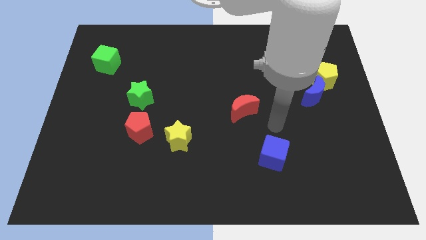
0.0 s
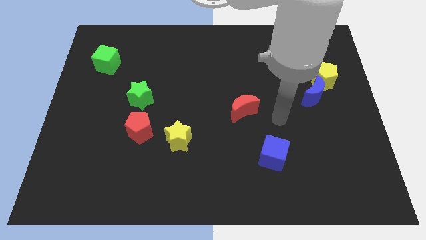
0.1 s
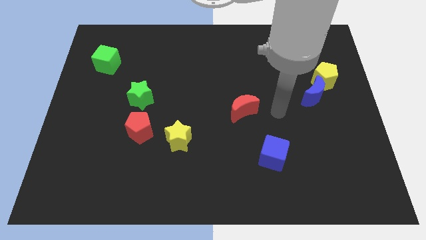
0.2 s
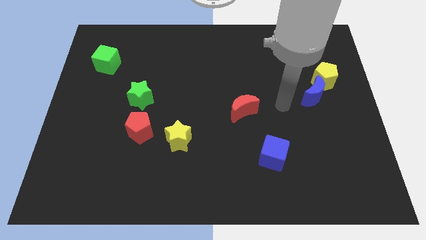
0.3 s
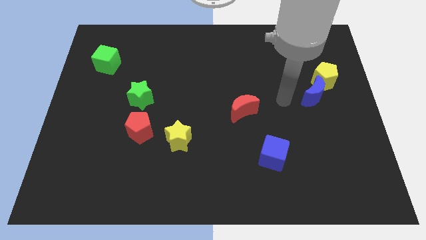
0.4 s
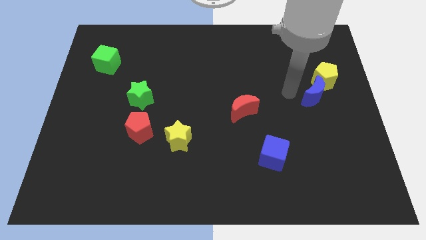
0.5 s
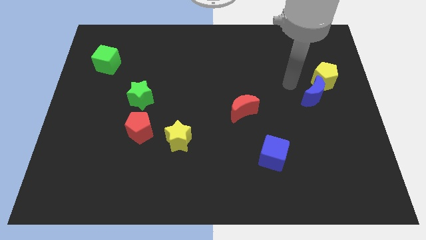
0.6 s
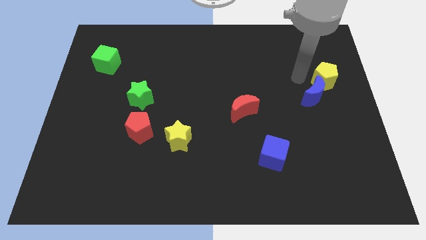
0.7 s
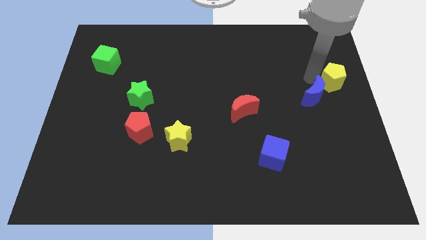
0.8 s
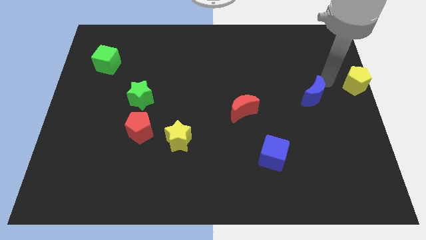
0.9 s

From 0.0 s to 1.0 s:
pull the blue moon apart from the yellow pentagon

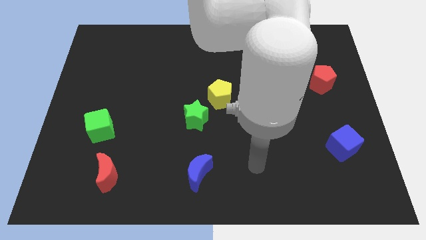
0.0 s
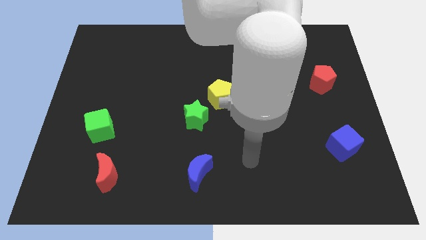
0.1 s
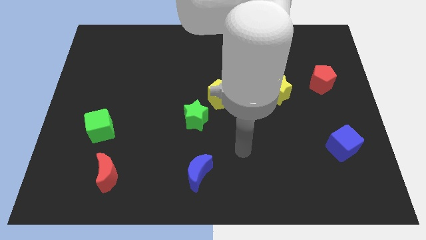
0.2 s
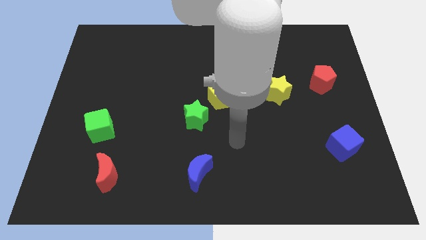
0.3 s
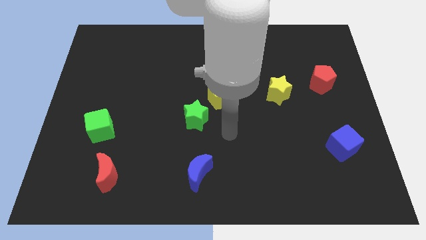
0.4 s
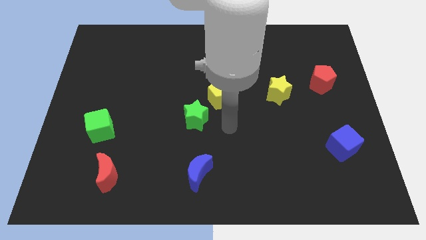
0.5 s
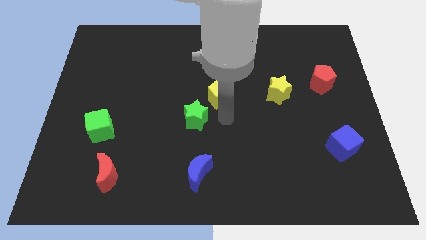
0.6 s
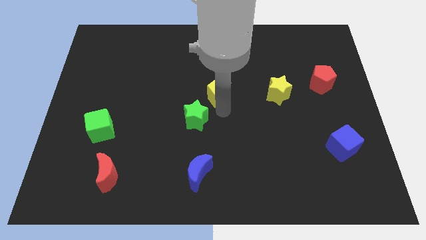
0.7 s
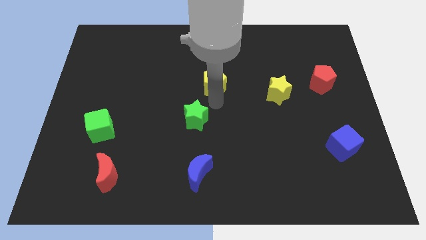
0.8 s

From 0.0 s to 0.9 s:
move the green star away from the yellow pentagon

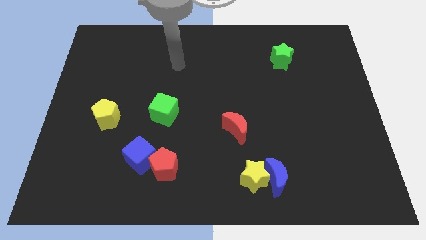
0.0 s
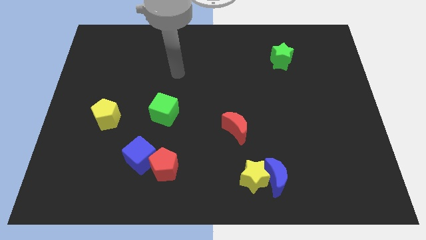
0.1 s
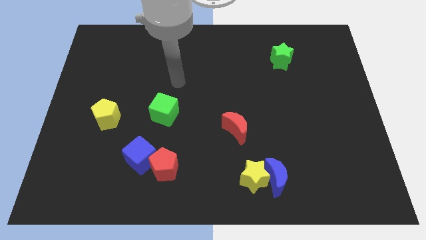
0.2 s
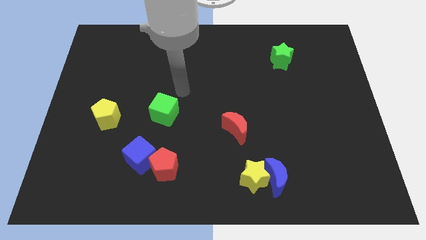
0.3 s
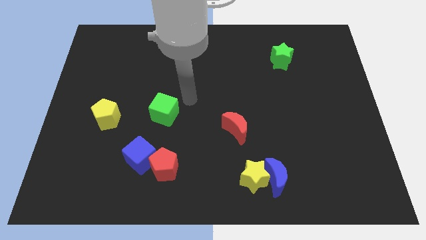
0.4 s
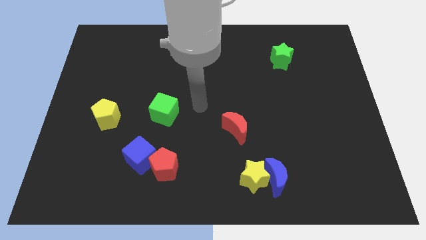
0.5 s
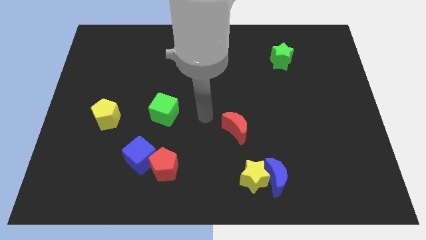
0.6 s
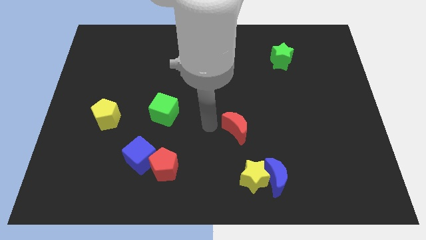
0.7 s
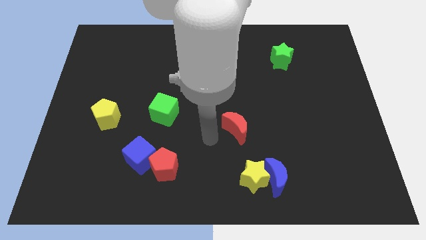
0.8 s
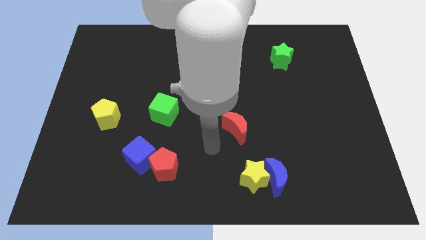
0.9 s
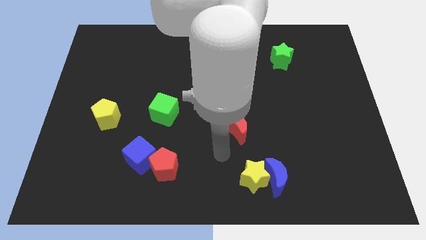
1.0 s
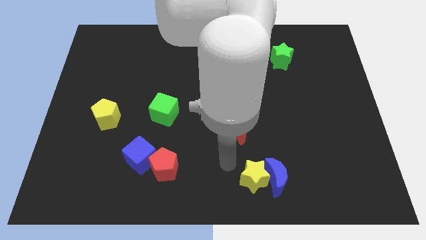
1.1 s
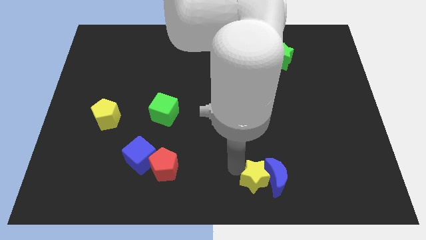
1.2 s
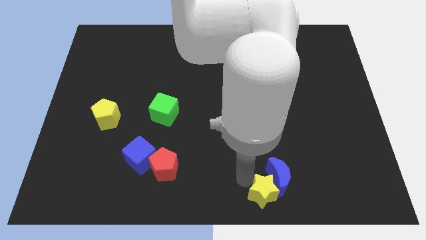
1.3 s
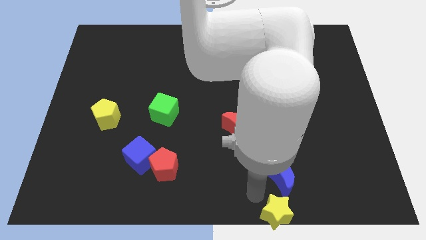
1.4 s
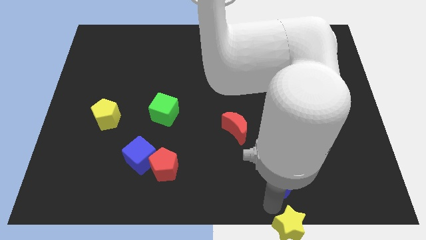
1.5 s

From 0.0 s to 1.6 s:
separate the blue moon from the yellow star

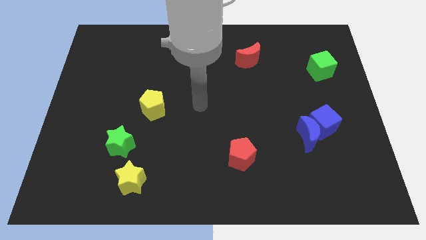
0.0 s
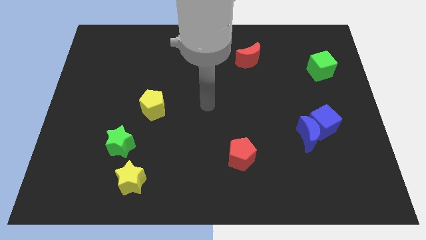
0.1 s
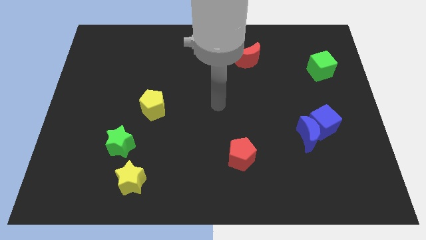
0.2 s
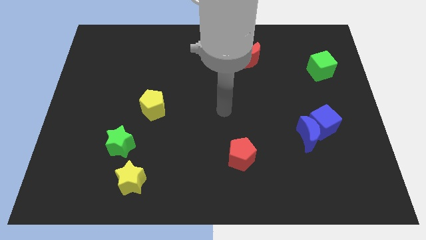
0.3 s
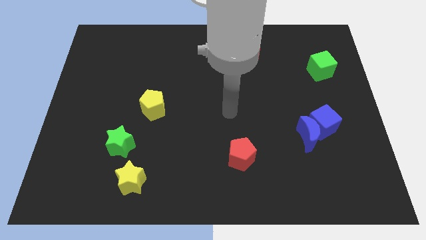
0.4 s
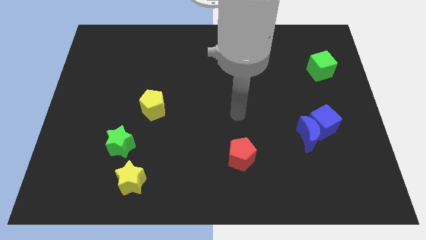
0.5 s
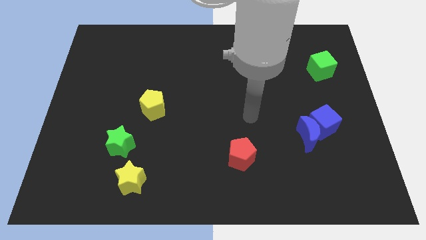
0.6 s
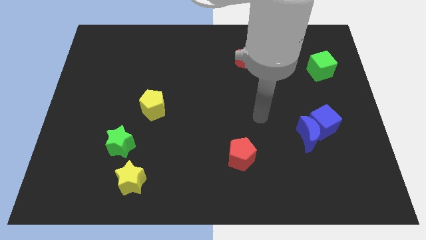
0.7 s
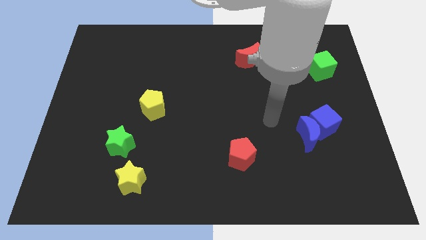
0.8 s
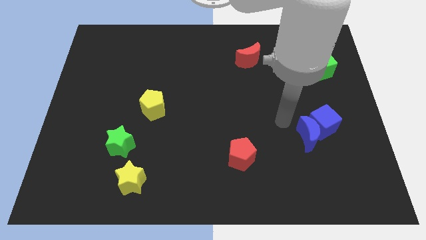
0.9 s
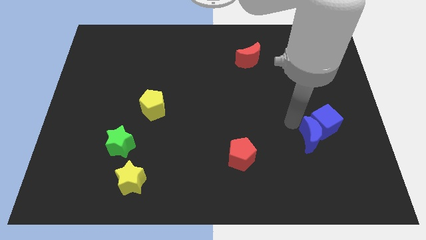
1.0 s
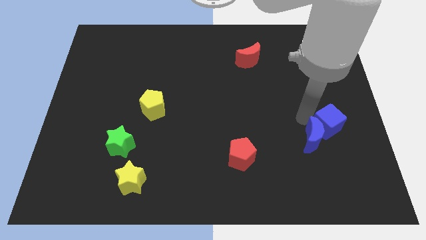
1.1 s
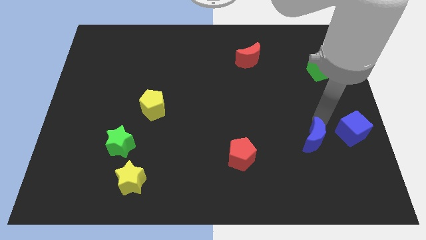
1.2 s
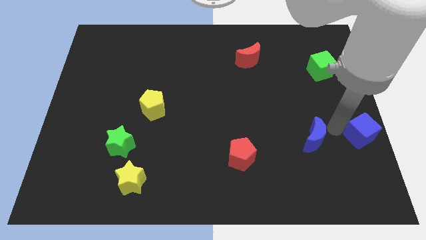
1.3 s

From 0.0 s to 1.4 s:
move the blue moon away from the blue cube

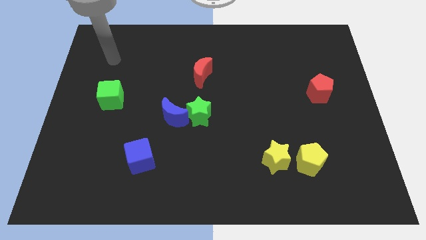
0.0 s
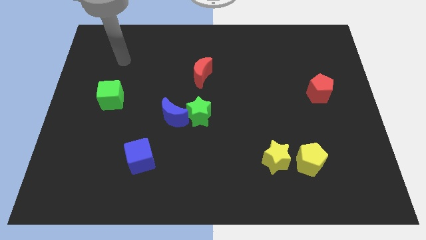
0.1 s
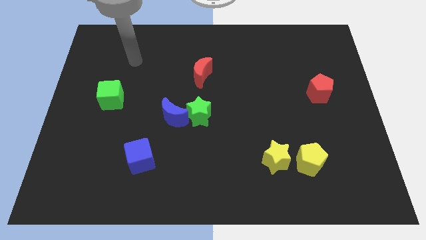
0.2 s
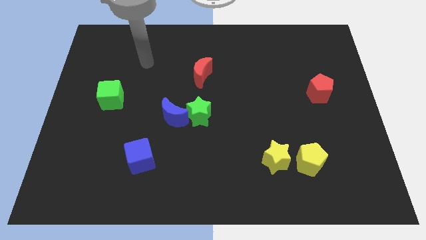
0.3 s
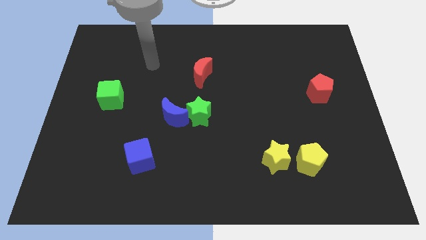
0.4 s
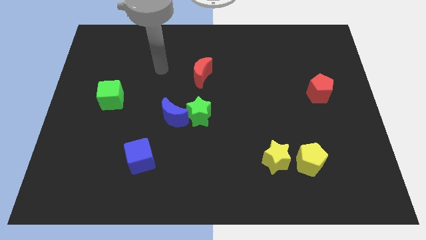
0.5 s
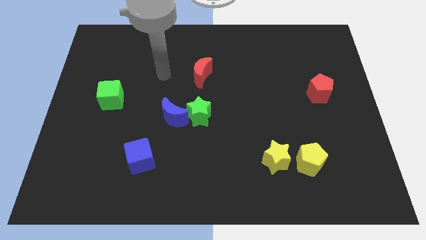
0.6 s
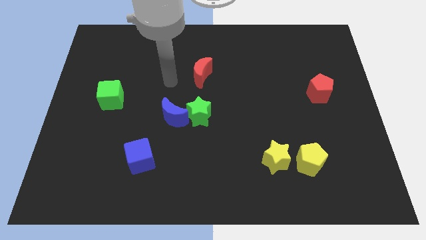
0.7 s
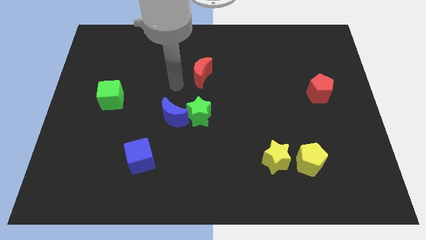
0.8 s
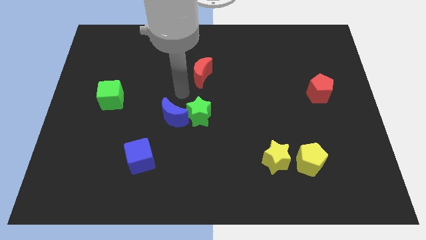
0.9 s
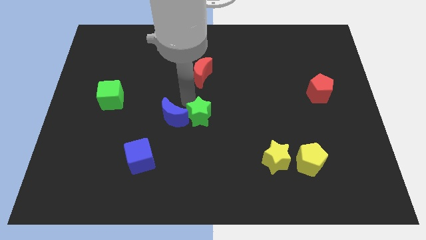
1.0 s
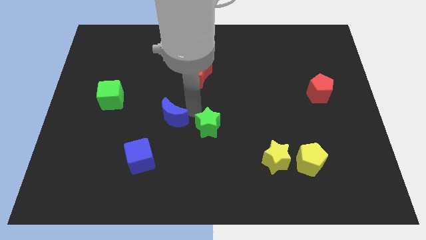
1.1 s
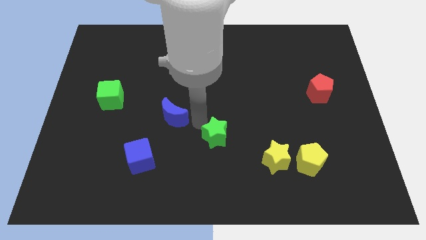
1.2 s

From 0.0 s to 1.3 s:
move the blue moon away from the green star

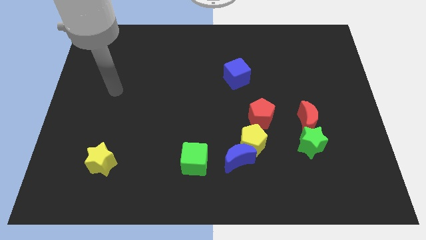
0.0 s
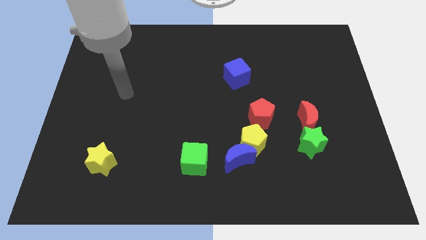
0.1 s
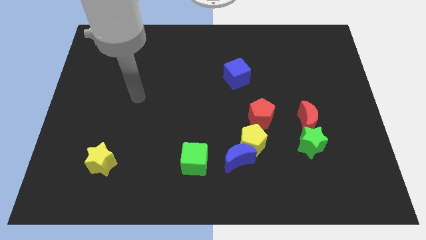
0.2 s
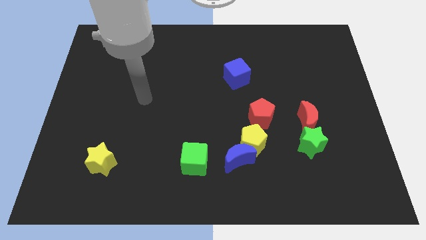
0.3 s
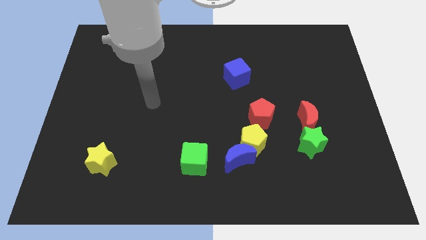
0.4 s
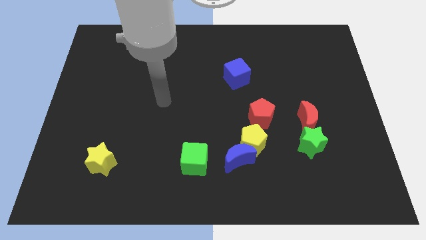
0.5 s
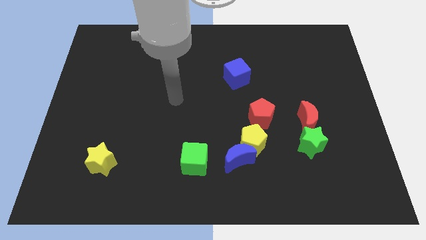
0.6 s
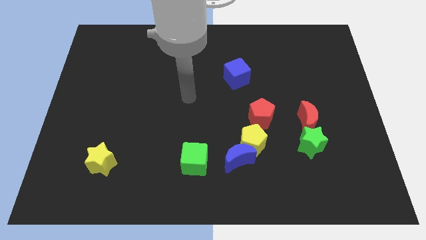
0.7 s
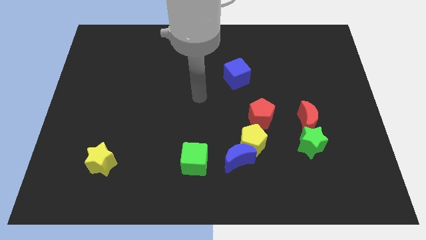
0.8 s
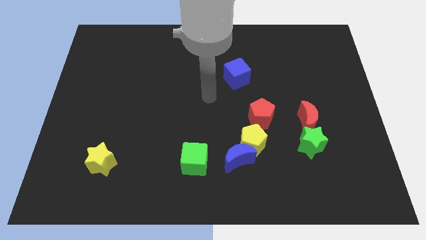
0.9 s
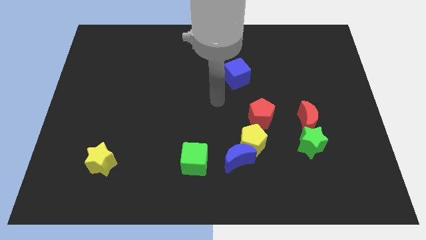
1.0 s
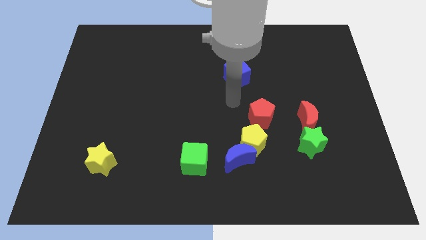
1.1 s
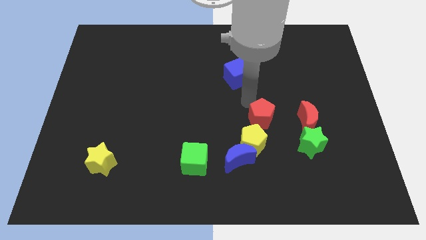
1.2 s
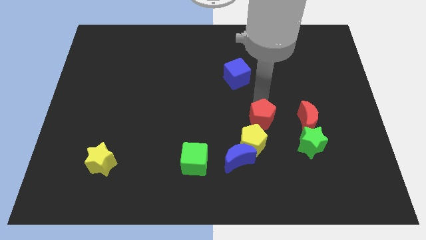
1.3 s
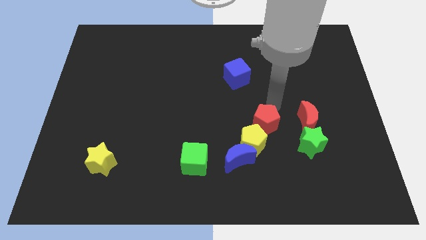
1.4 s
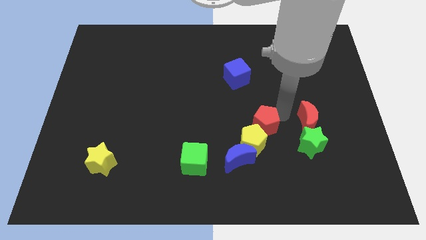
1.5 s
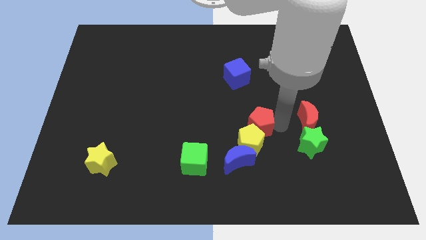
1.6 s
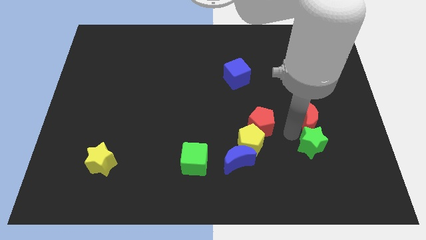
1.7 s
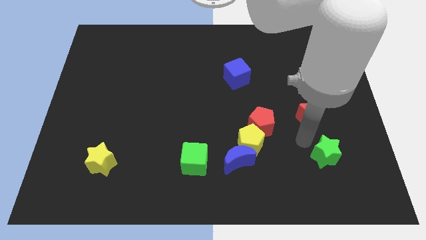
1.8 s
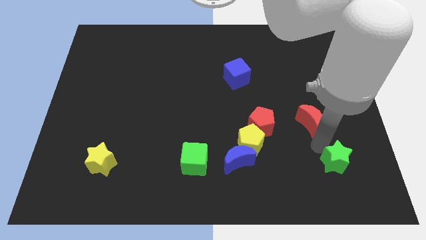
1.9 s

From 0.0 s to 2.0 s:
pull the red moon apart from the green star

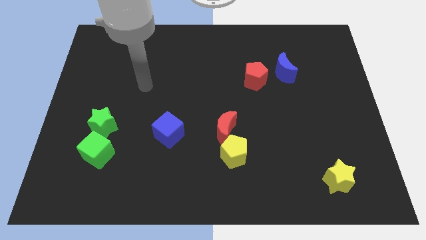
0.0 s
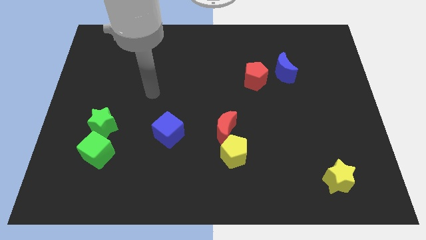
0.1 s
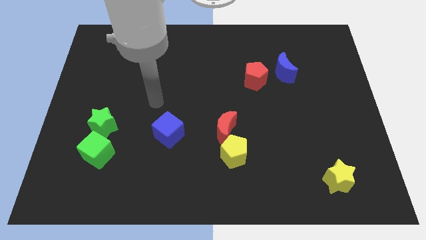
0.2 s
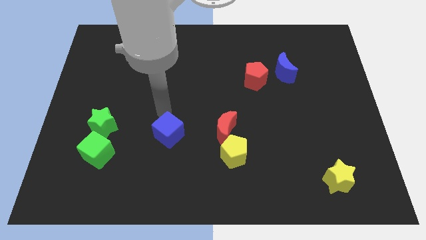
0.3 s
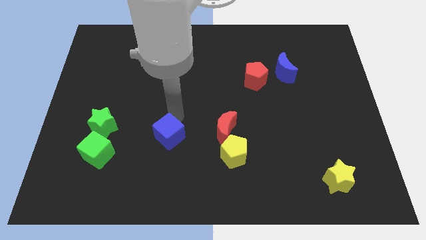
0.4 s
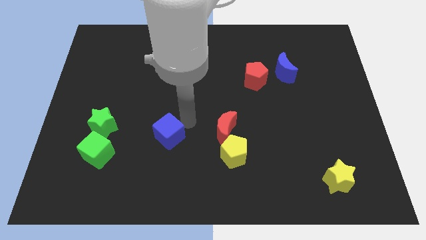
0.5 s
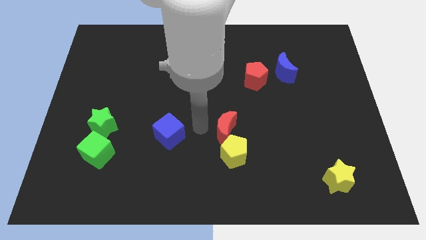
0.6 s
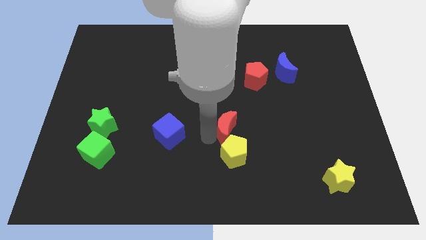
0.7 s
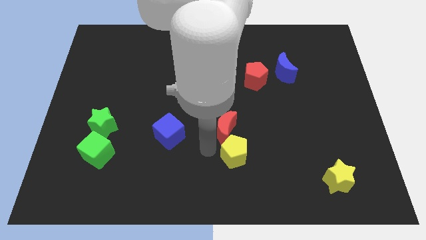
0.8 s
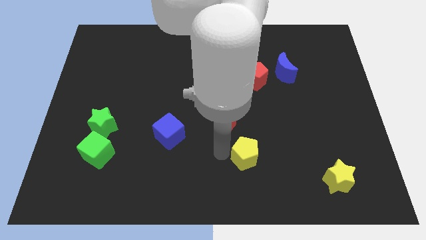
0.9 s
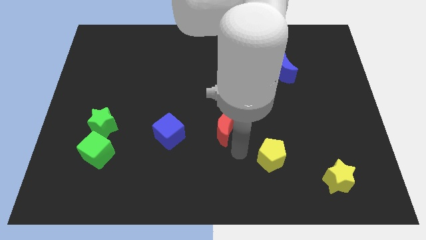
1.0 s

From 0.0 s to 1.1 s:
pull the red moon apart from the yellow pentagon
